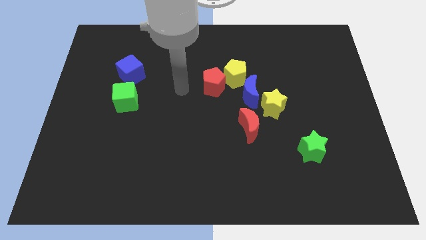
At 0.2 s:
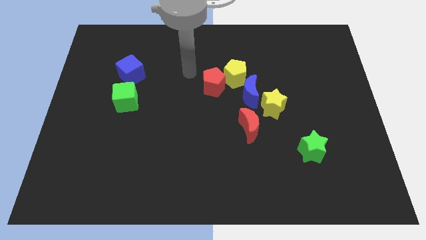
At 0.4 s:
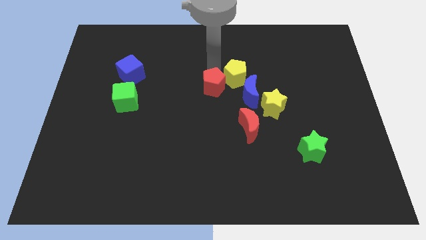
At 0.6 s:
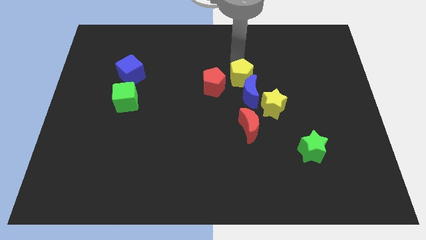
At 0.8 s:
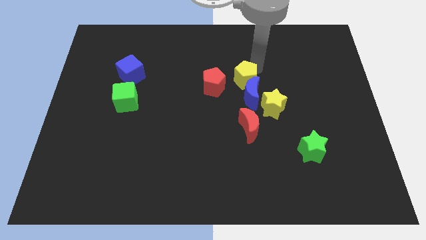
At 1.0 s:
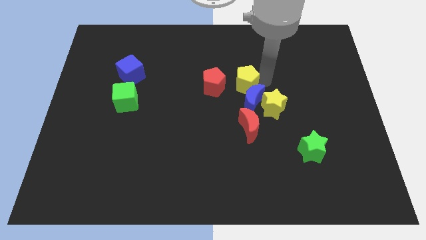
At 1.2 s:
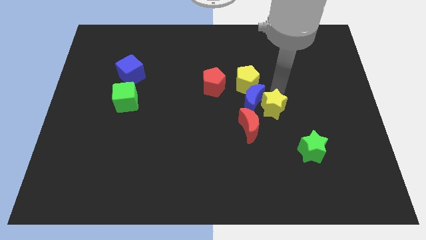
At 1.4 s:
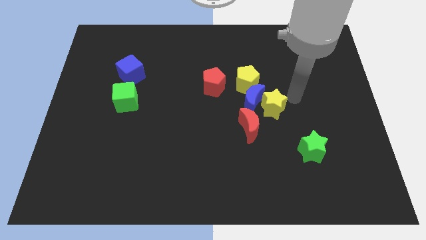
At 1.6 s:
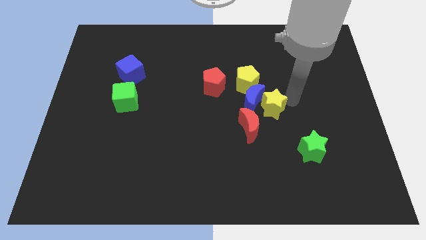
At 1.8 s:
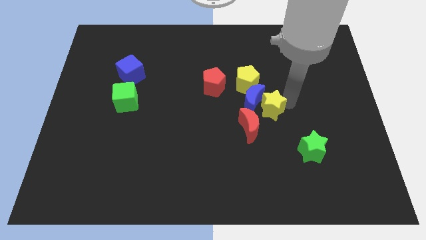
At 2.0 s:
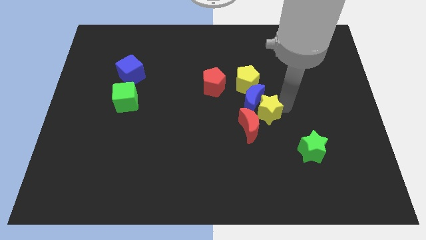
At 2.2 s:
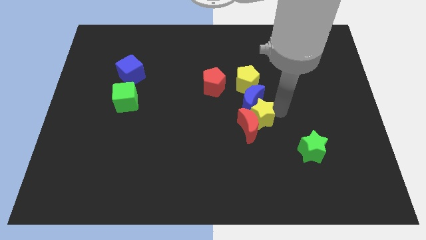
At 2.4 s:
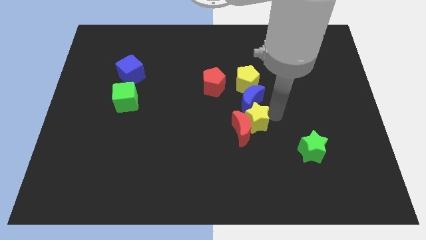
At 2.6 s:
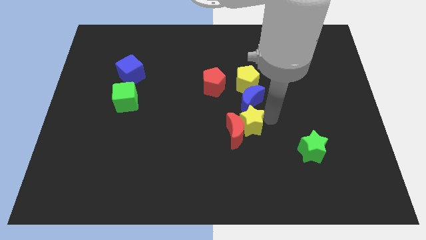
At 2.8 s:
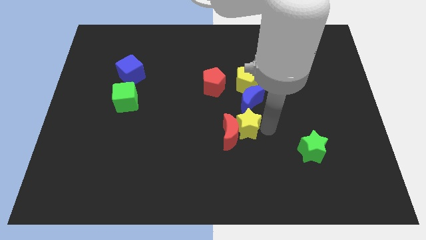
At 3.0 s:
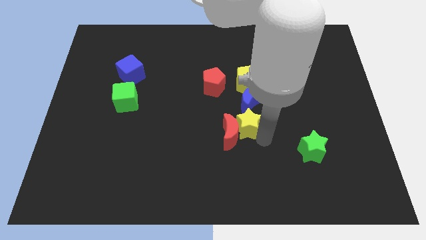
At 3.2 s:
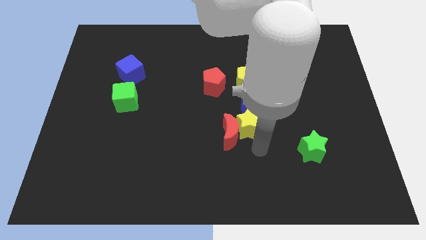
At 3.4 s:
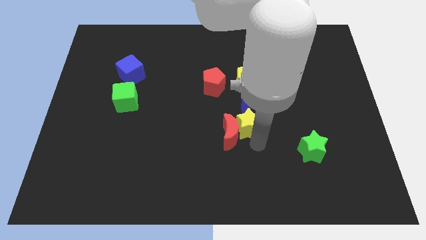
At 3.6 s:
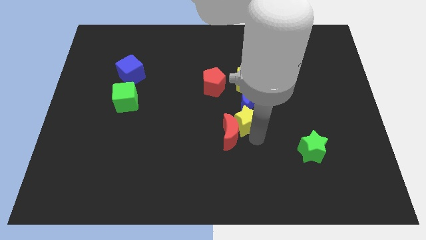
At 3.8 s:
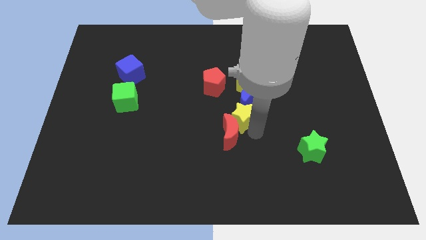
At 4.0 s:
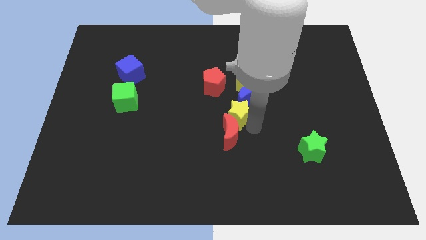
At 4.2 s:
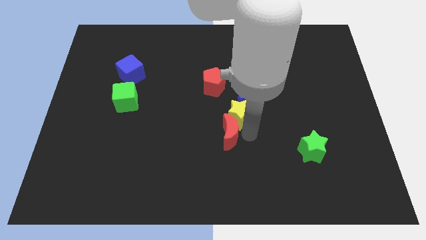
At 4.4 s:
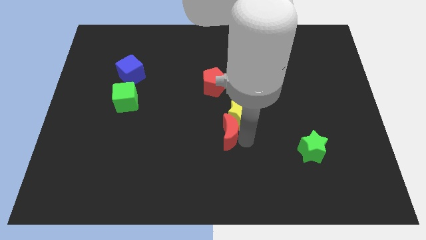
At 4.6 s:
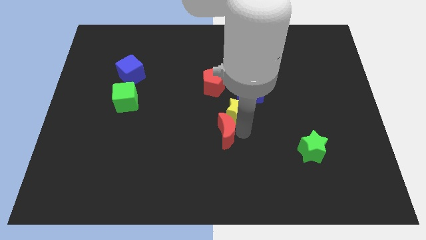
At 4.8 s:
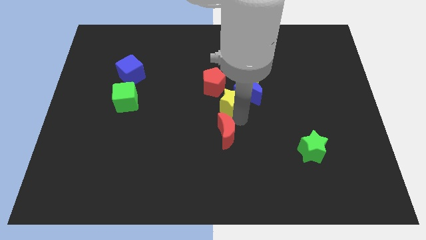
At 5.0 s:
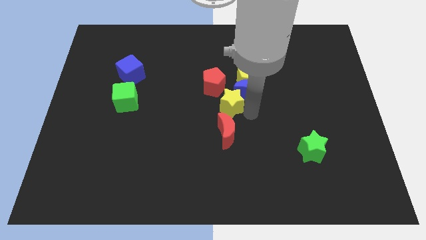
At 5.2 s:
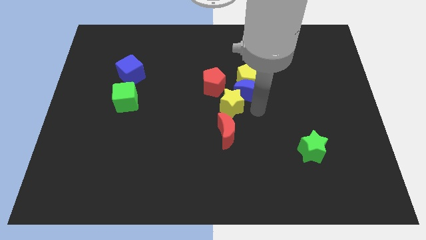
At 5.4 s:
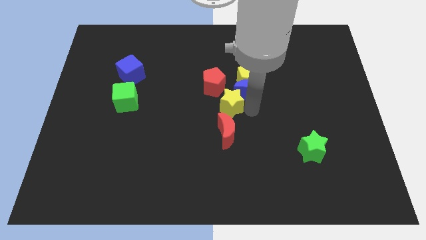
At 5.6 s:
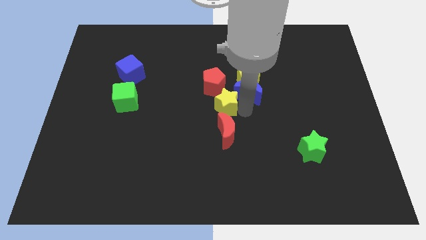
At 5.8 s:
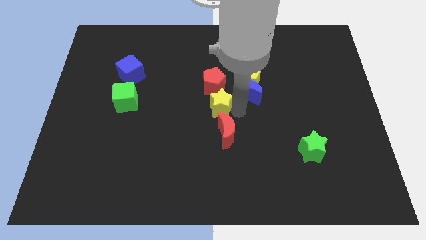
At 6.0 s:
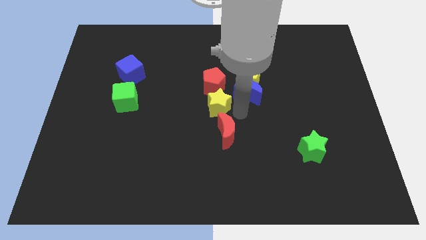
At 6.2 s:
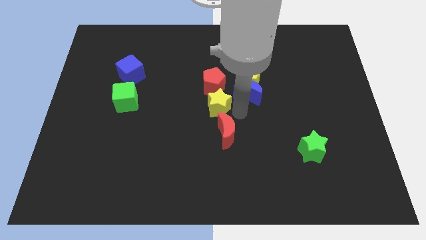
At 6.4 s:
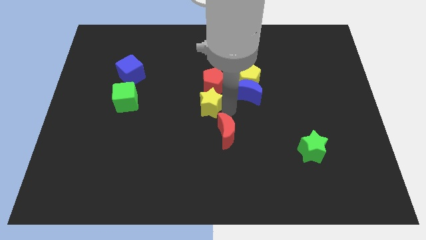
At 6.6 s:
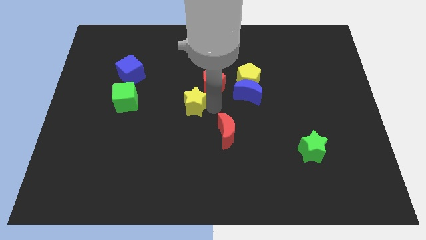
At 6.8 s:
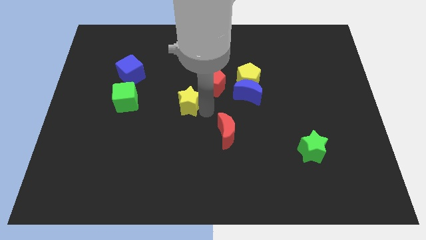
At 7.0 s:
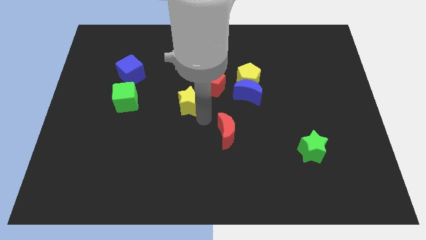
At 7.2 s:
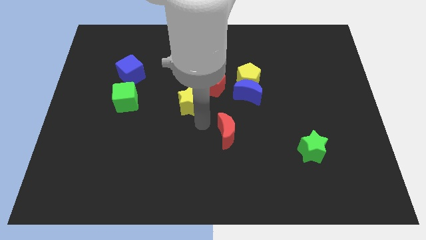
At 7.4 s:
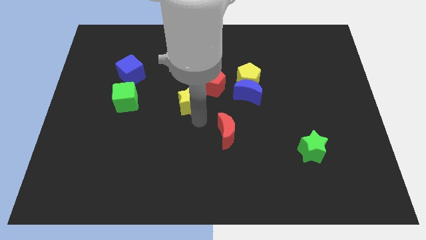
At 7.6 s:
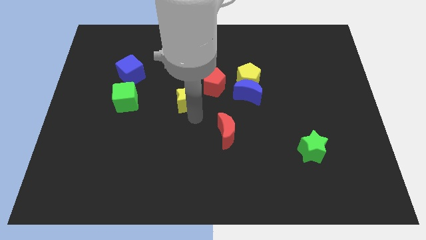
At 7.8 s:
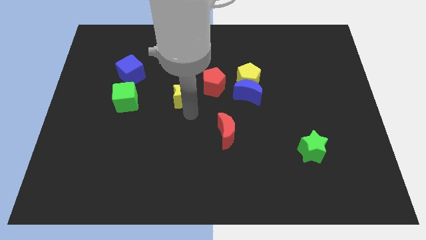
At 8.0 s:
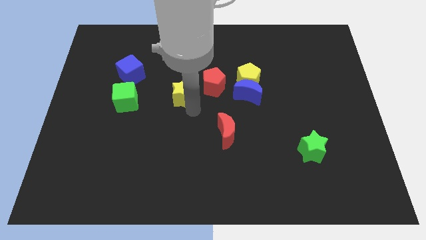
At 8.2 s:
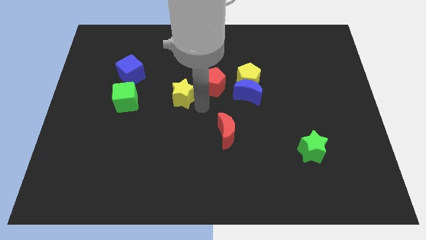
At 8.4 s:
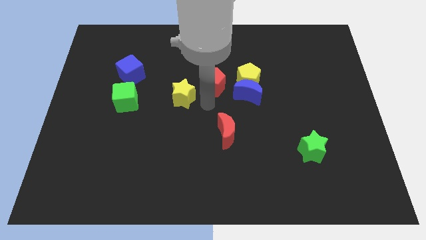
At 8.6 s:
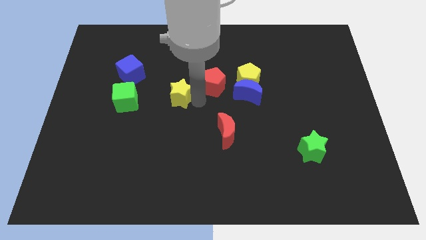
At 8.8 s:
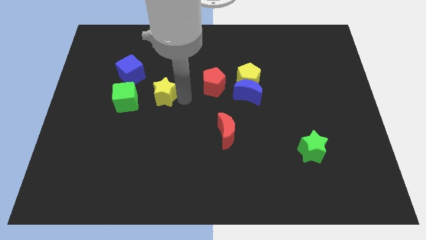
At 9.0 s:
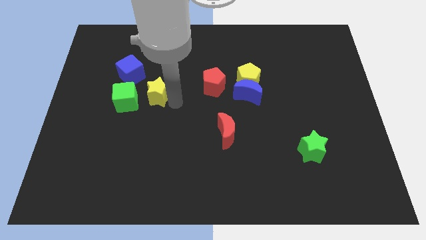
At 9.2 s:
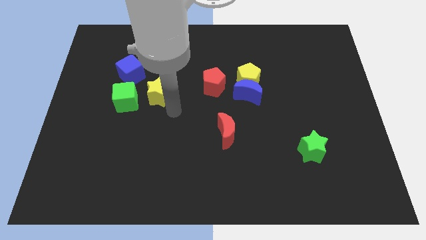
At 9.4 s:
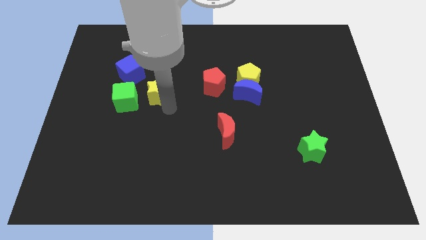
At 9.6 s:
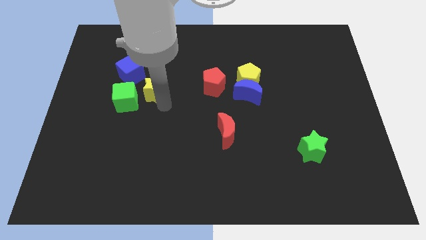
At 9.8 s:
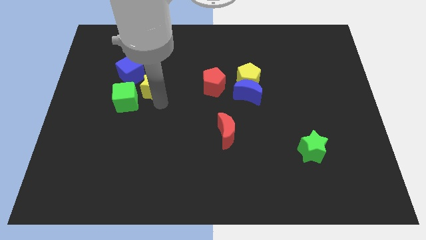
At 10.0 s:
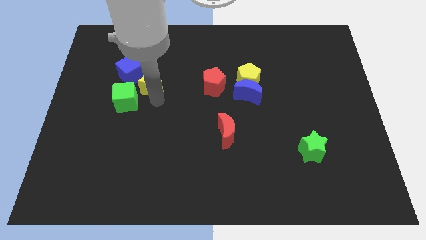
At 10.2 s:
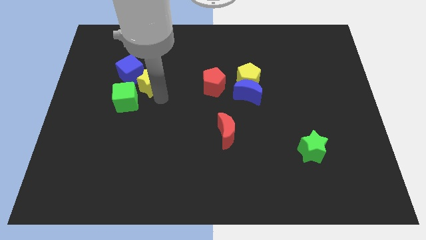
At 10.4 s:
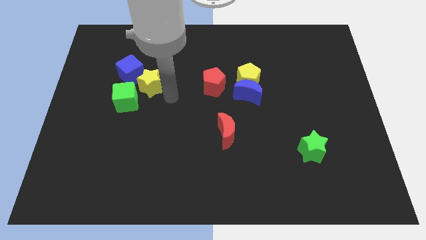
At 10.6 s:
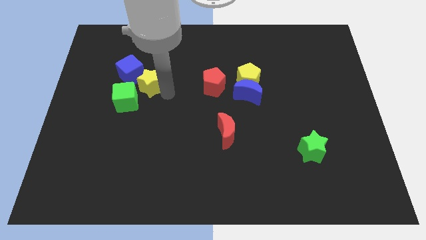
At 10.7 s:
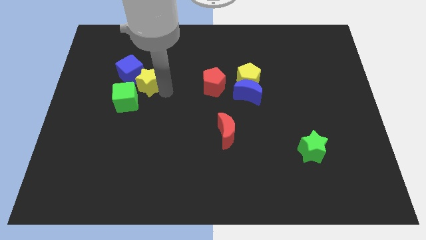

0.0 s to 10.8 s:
push the yellow star next to the blue cube

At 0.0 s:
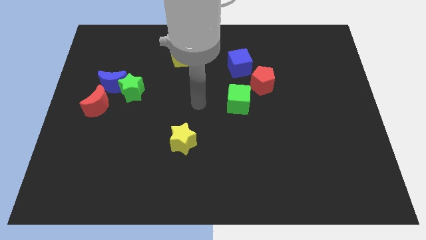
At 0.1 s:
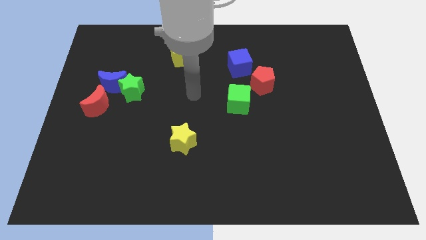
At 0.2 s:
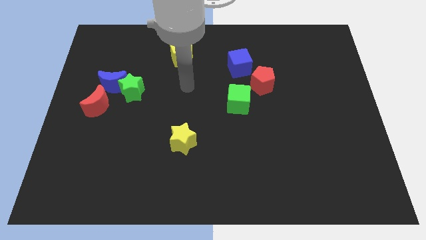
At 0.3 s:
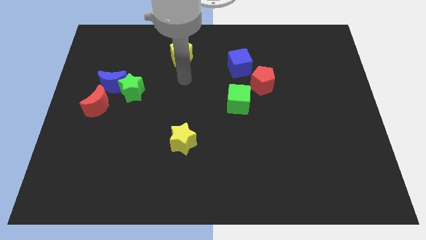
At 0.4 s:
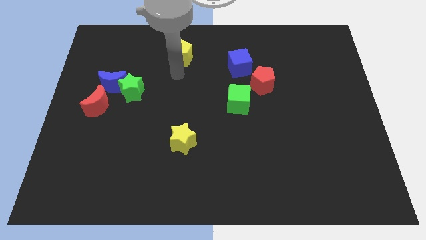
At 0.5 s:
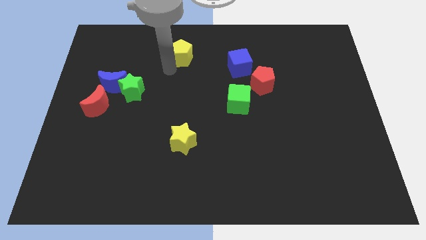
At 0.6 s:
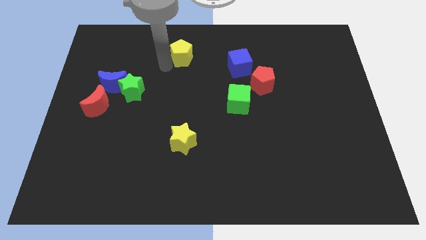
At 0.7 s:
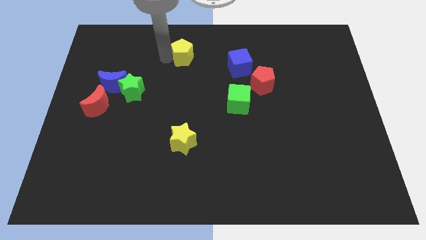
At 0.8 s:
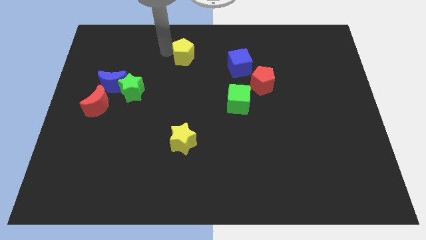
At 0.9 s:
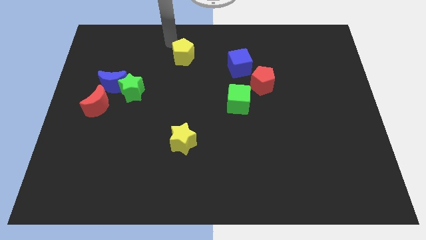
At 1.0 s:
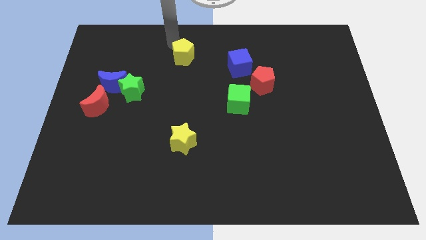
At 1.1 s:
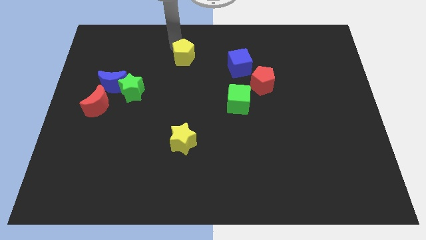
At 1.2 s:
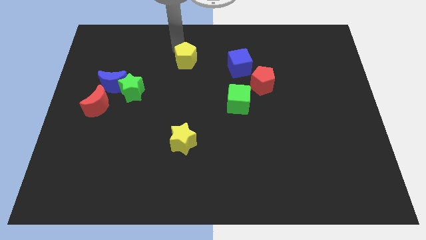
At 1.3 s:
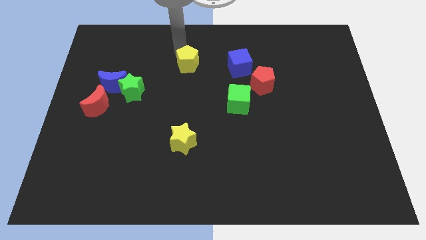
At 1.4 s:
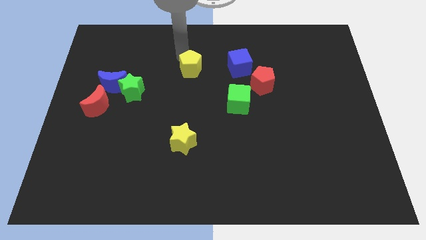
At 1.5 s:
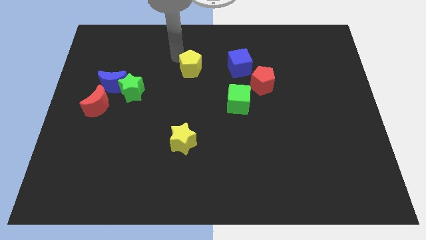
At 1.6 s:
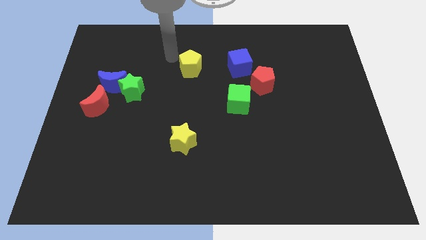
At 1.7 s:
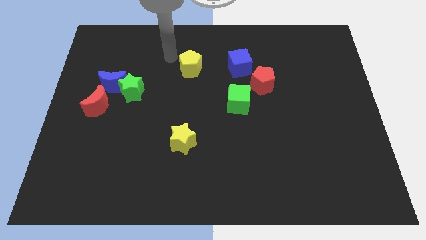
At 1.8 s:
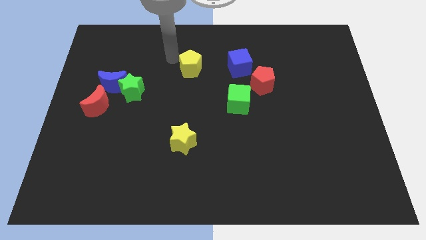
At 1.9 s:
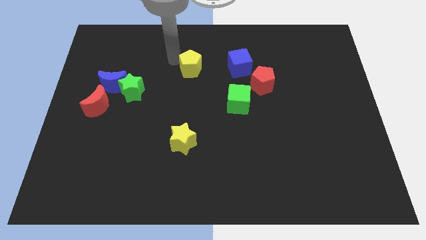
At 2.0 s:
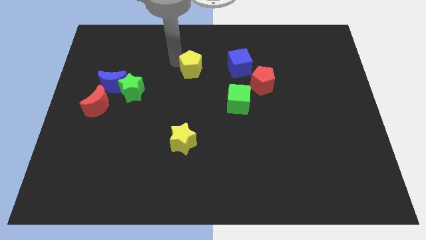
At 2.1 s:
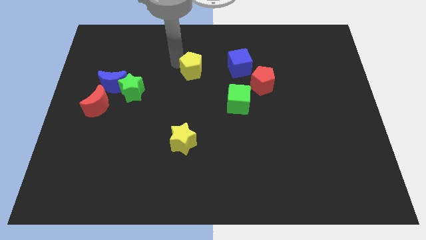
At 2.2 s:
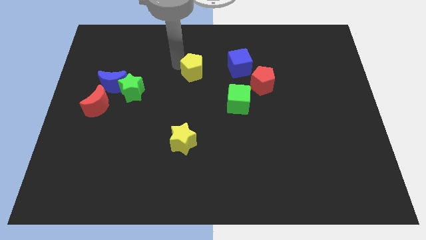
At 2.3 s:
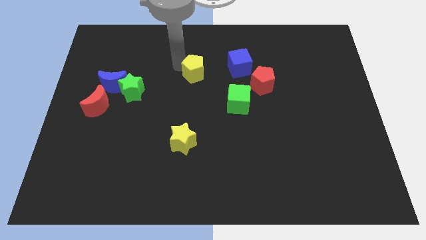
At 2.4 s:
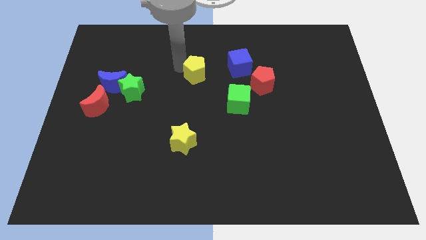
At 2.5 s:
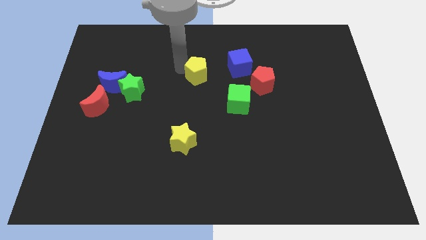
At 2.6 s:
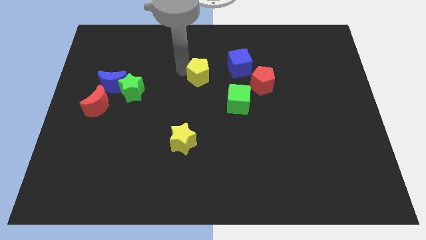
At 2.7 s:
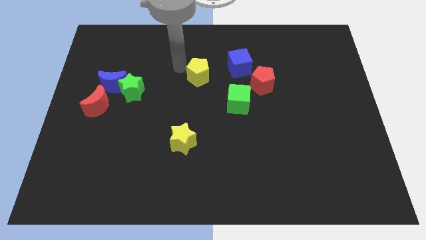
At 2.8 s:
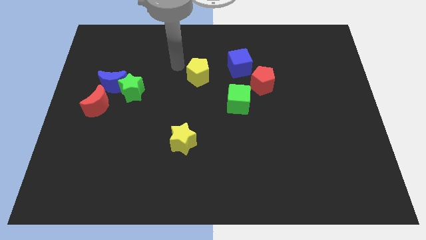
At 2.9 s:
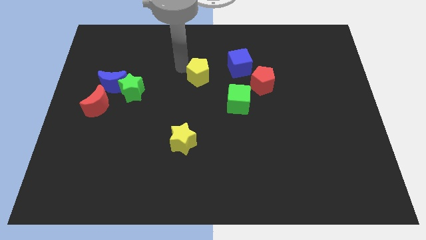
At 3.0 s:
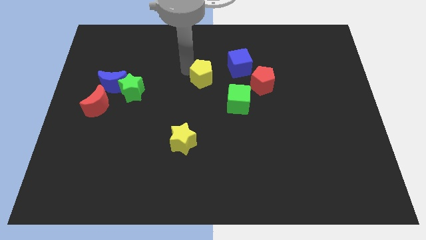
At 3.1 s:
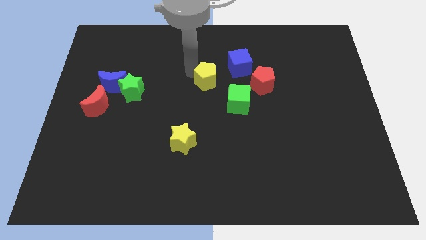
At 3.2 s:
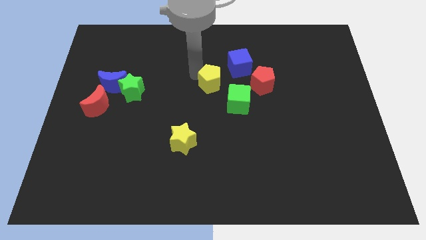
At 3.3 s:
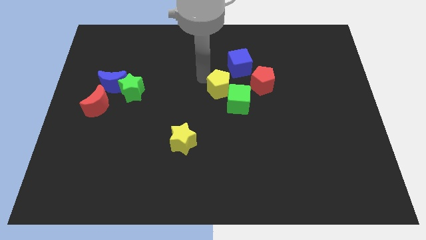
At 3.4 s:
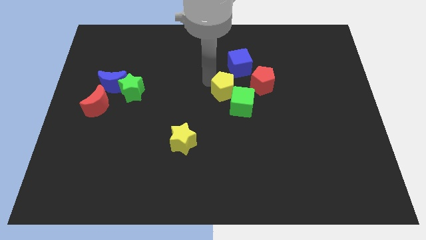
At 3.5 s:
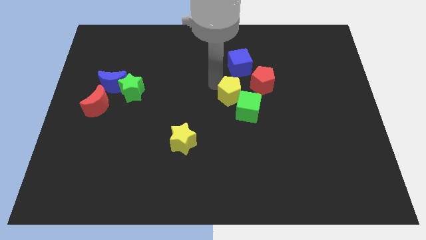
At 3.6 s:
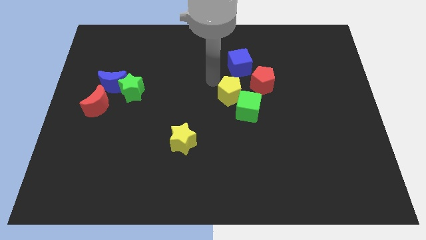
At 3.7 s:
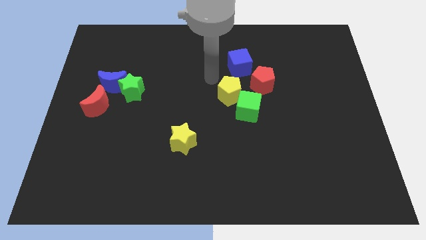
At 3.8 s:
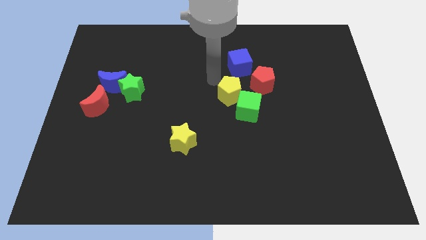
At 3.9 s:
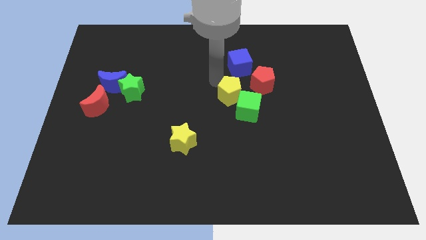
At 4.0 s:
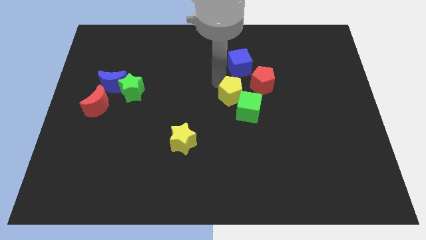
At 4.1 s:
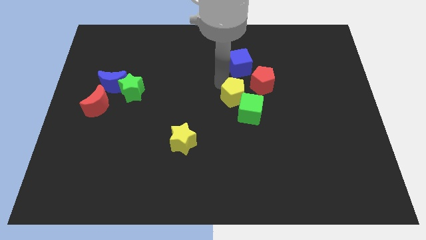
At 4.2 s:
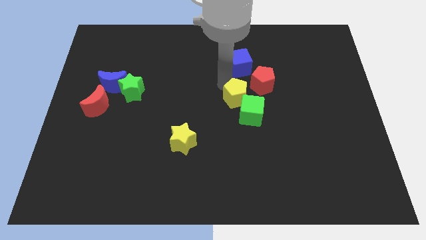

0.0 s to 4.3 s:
push the yellow pentagon close to the green cube
